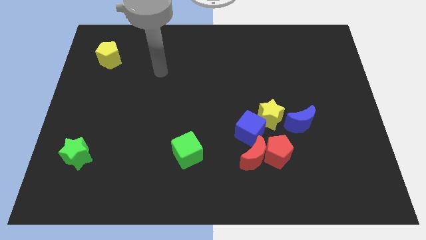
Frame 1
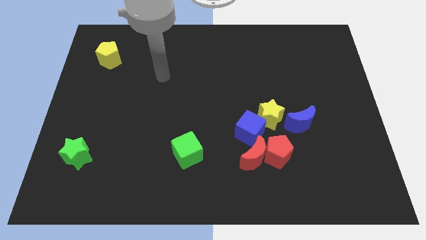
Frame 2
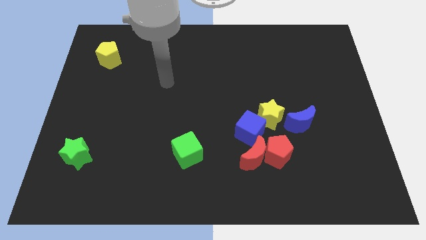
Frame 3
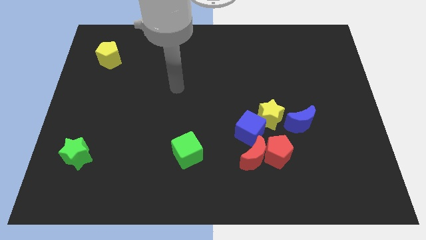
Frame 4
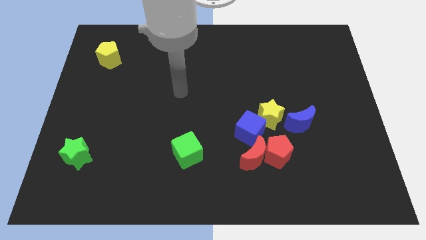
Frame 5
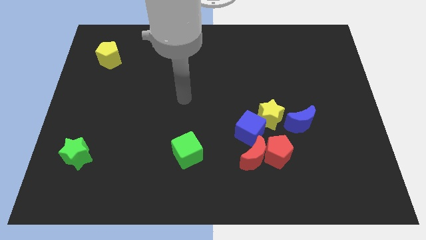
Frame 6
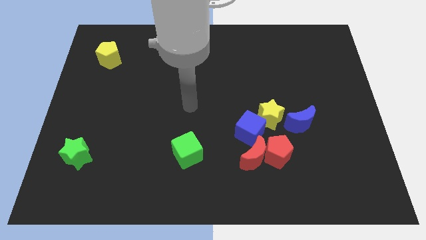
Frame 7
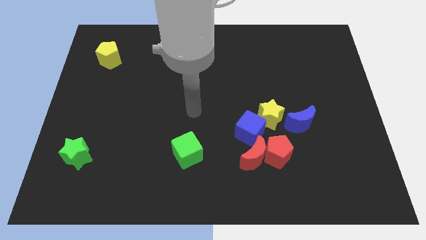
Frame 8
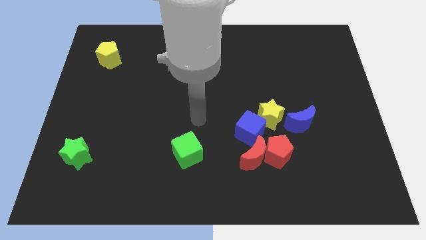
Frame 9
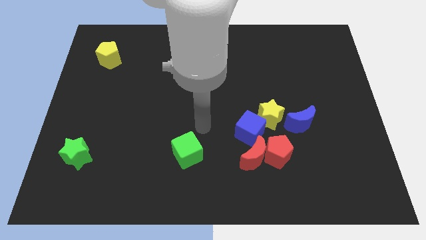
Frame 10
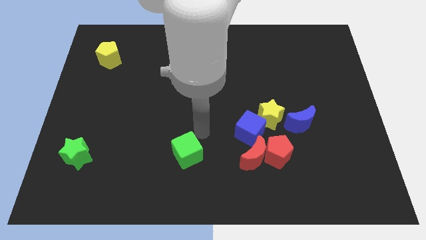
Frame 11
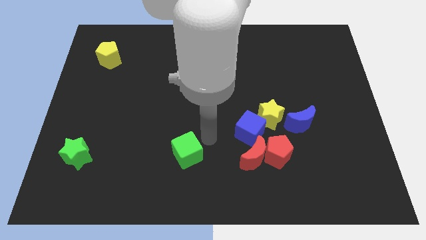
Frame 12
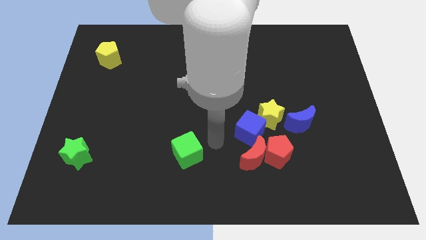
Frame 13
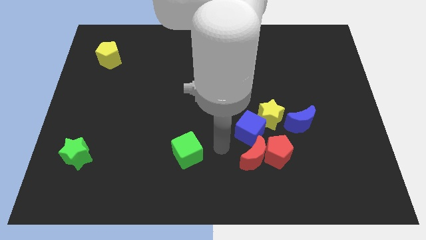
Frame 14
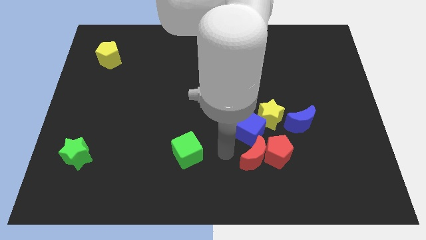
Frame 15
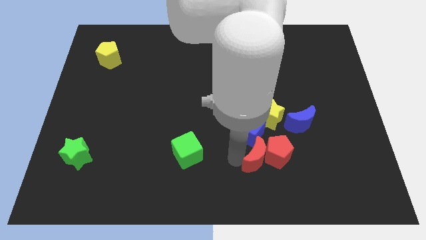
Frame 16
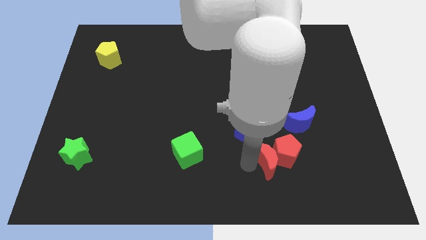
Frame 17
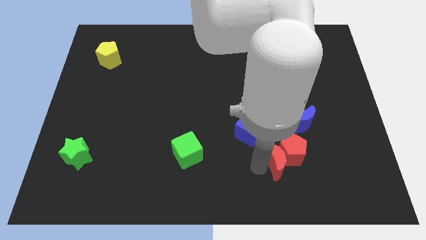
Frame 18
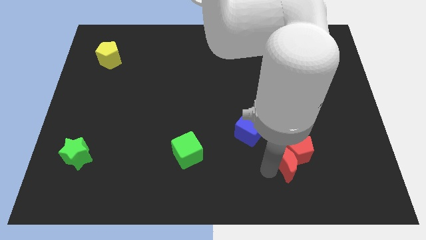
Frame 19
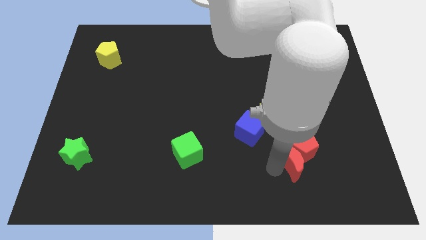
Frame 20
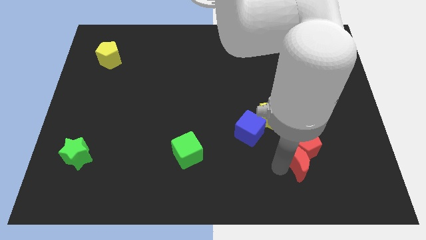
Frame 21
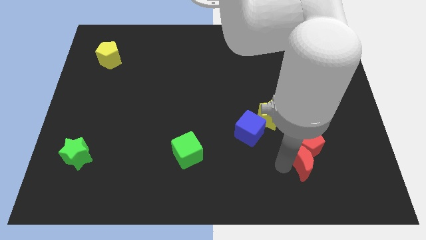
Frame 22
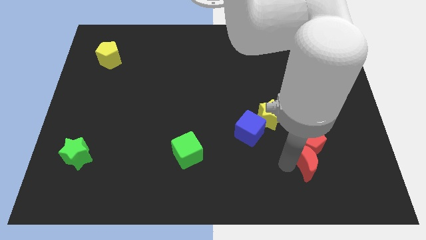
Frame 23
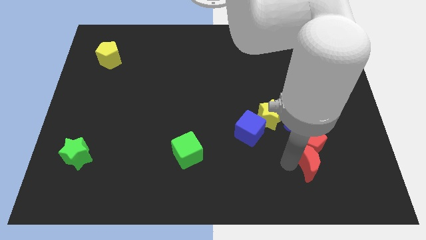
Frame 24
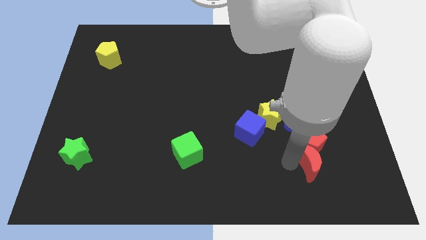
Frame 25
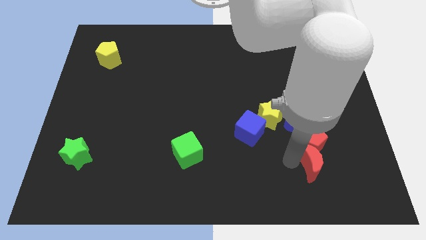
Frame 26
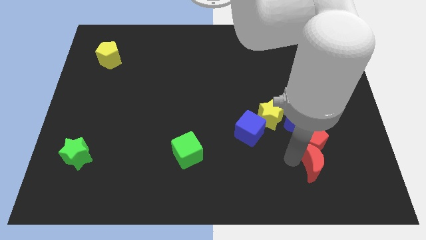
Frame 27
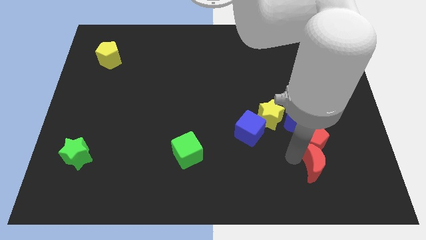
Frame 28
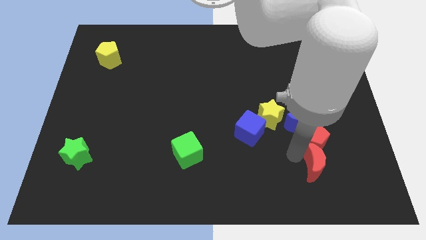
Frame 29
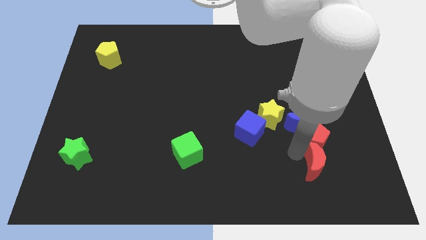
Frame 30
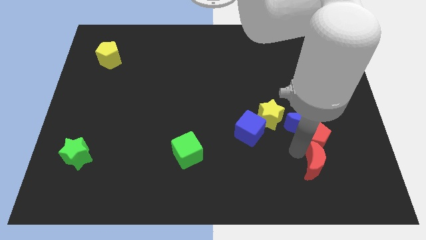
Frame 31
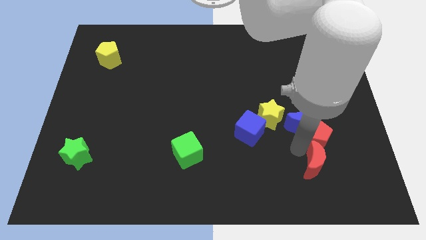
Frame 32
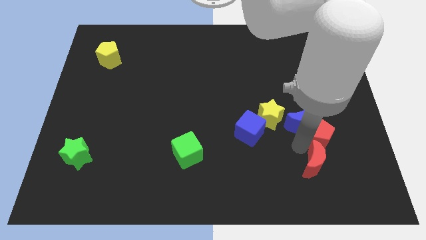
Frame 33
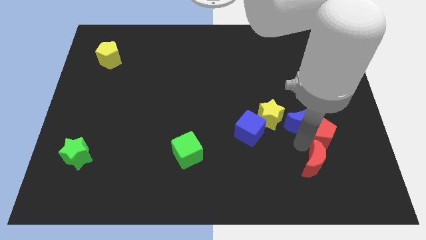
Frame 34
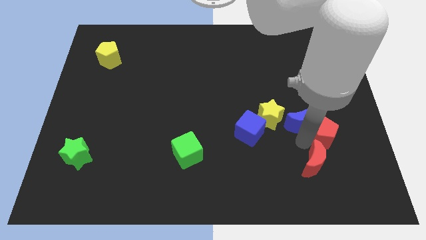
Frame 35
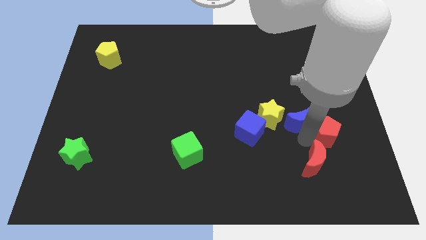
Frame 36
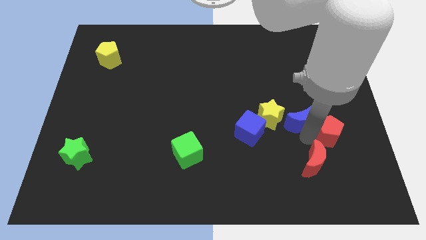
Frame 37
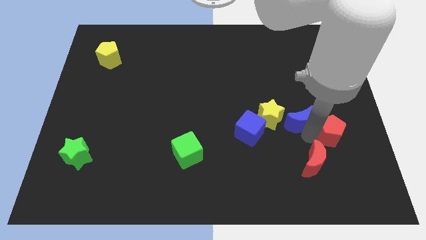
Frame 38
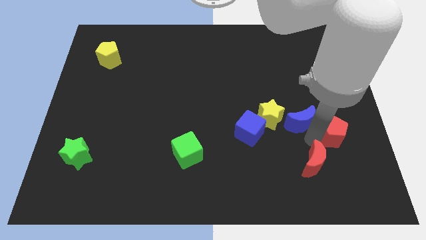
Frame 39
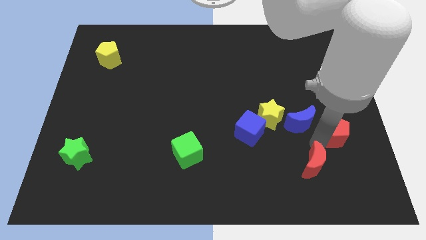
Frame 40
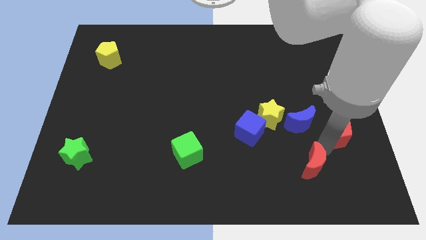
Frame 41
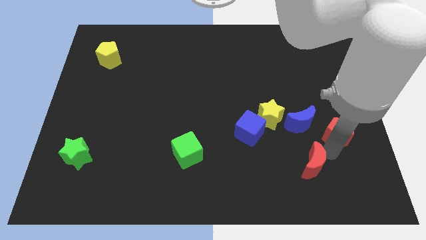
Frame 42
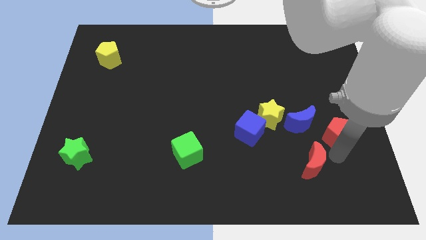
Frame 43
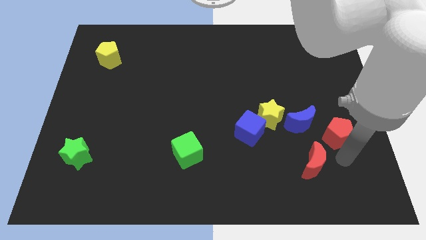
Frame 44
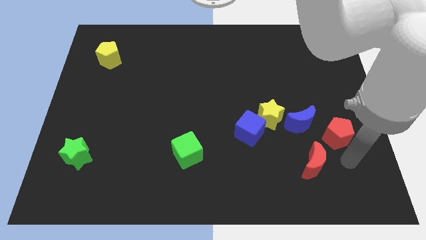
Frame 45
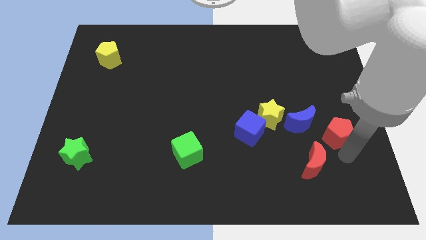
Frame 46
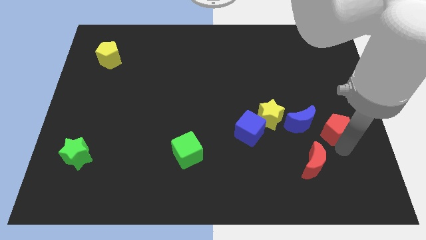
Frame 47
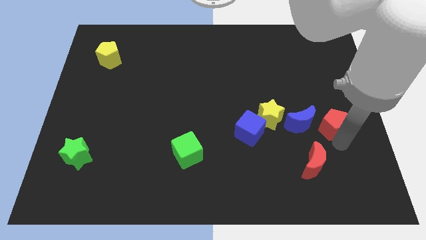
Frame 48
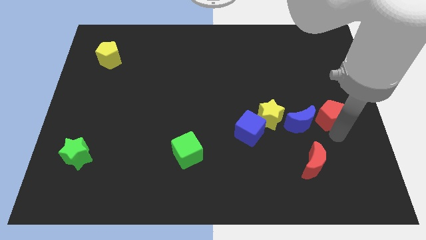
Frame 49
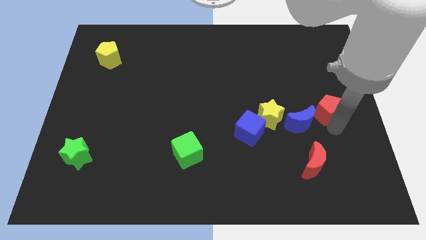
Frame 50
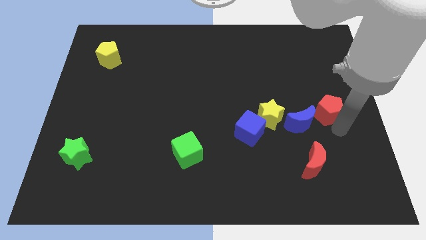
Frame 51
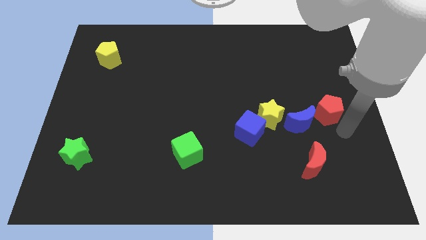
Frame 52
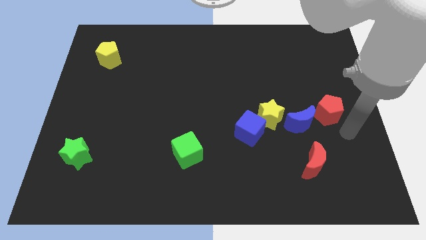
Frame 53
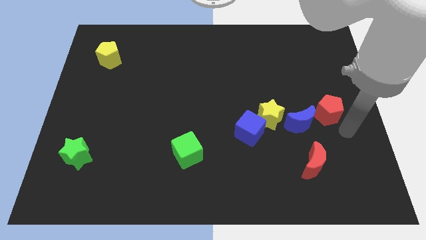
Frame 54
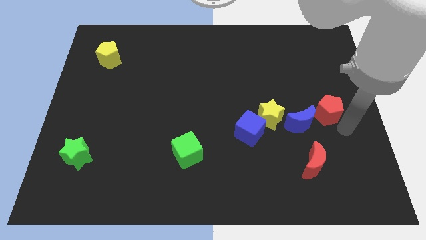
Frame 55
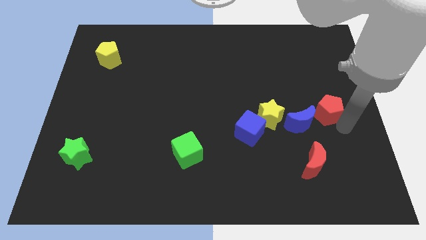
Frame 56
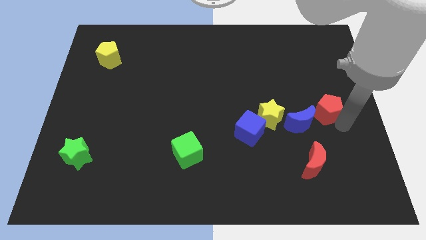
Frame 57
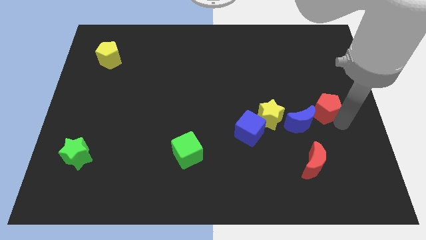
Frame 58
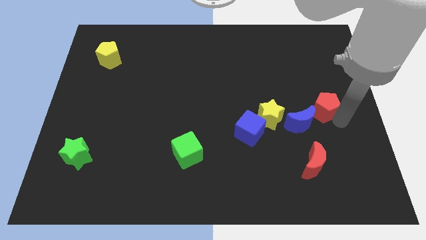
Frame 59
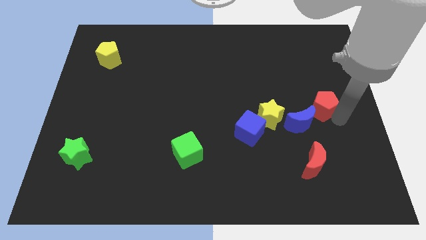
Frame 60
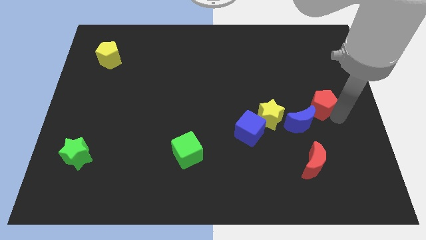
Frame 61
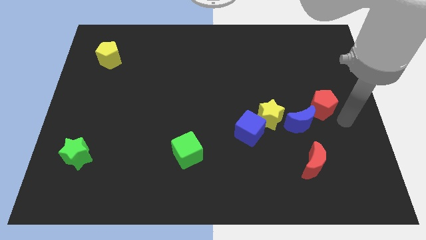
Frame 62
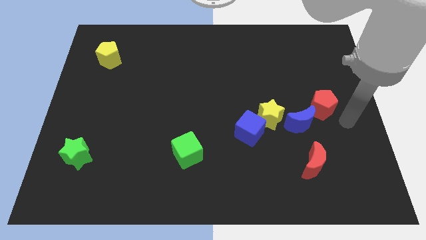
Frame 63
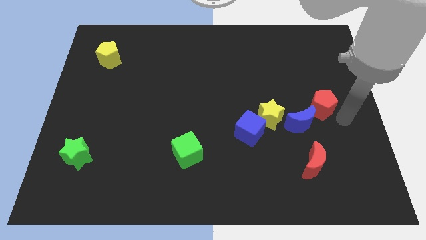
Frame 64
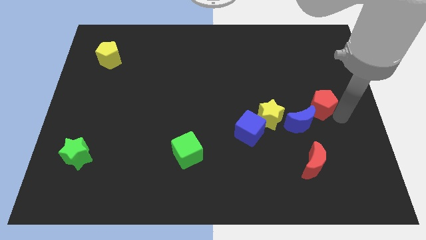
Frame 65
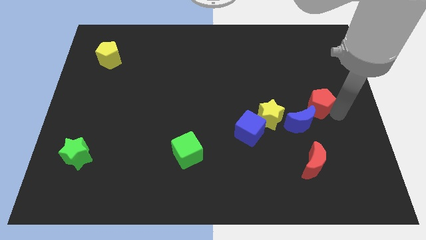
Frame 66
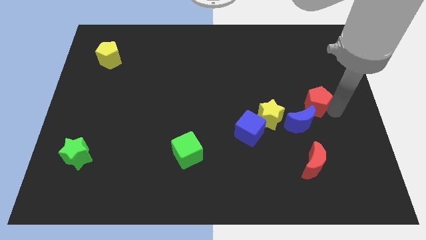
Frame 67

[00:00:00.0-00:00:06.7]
push the red pentagon upwards slightly

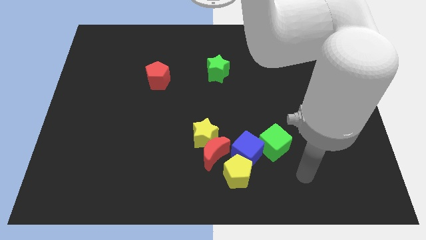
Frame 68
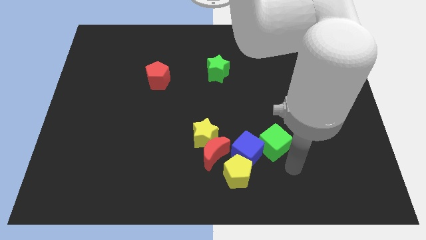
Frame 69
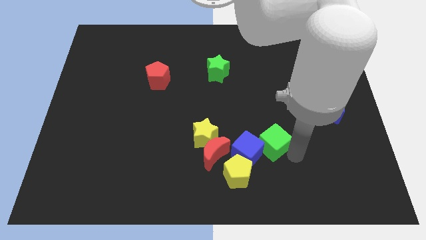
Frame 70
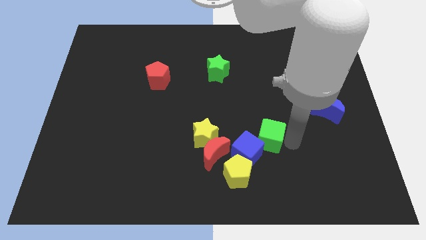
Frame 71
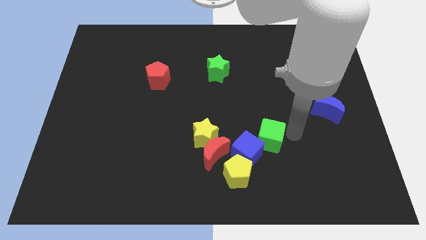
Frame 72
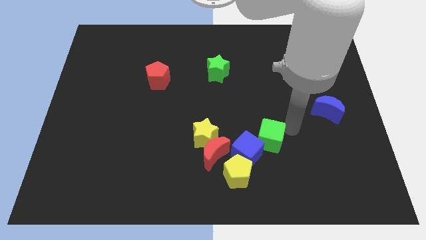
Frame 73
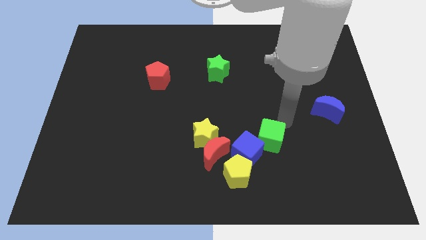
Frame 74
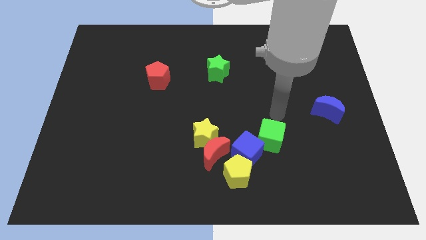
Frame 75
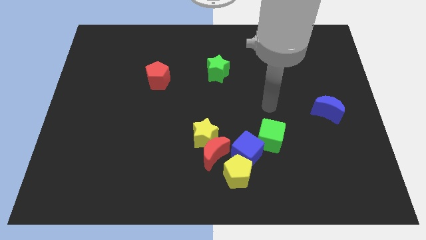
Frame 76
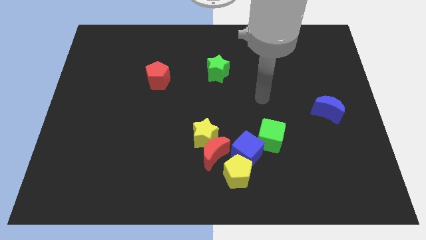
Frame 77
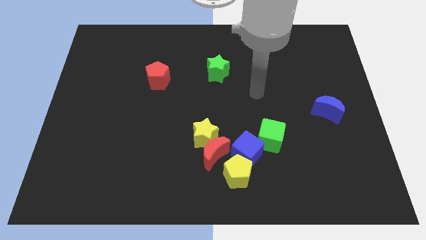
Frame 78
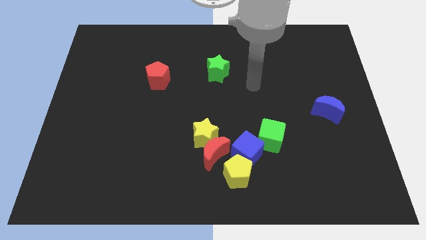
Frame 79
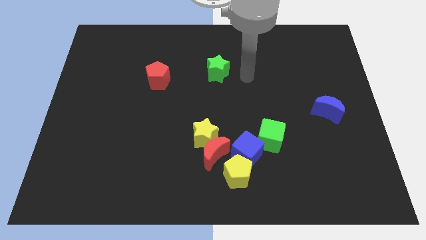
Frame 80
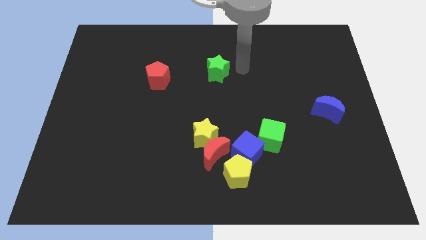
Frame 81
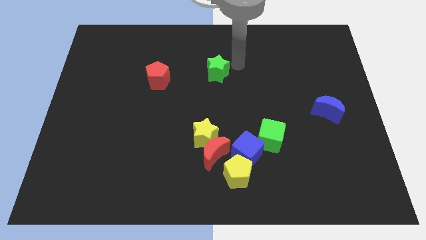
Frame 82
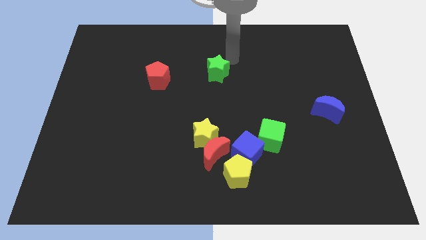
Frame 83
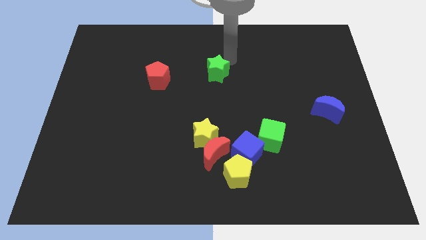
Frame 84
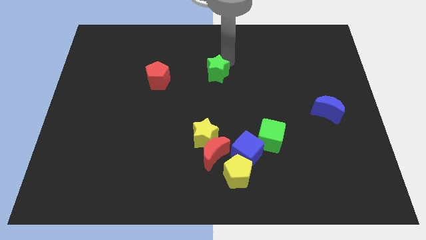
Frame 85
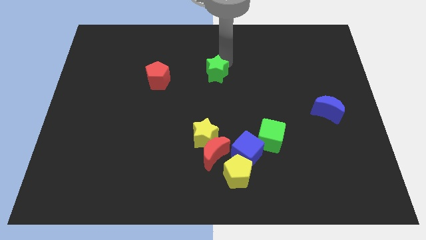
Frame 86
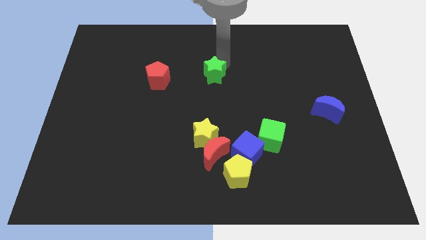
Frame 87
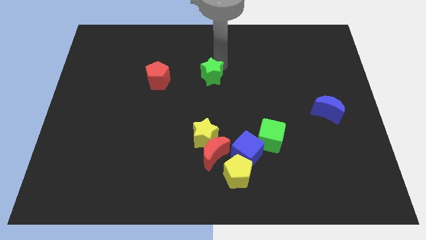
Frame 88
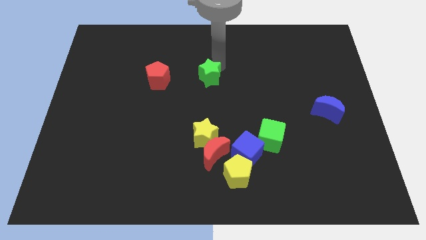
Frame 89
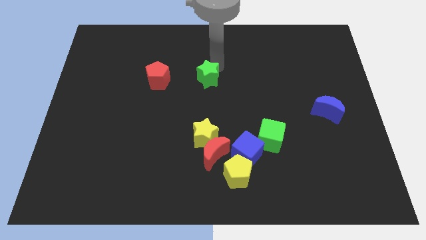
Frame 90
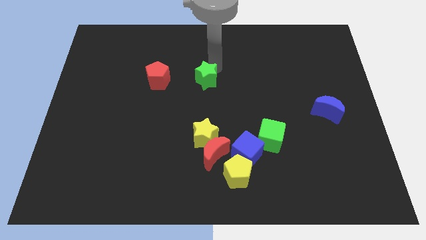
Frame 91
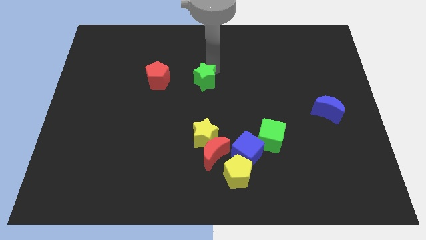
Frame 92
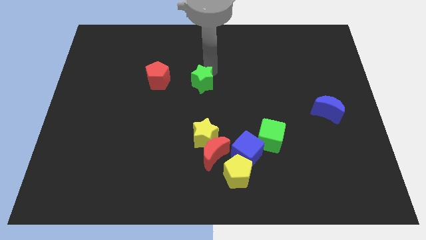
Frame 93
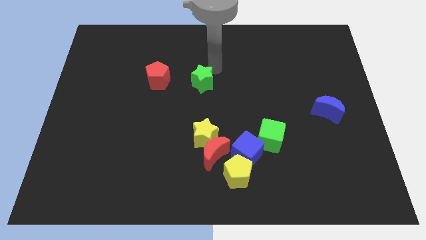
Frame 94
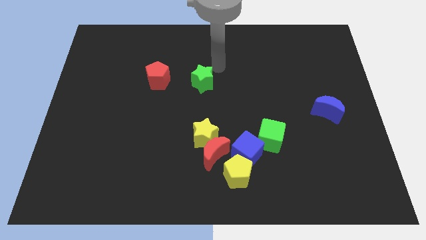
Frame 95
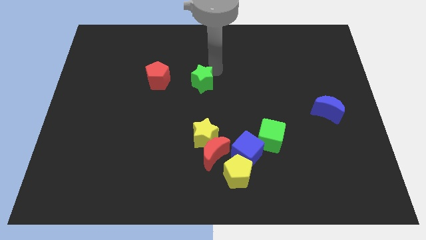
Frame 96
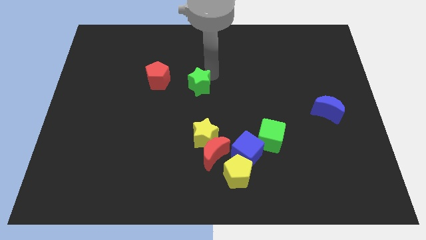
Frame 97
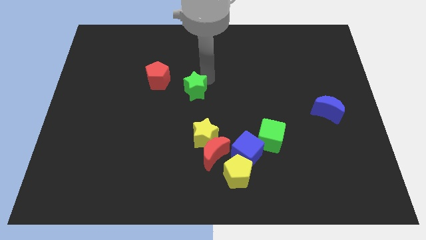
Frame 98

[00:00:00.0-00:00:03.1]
push the green star a little bit down and to the left
